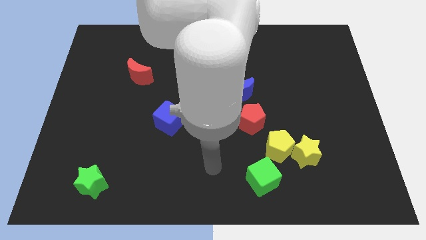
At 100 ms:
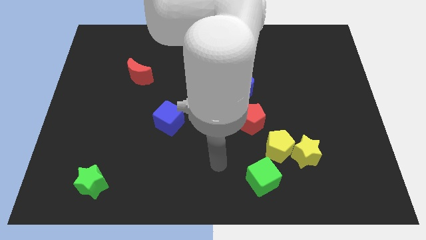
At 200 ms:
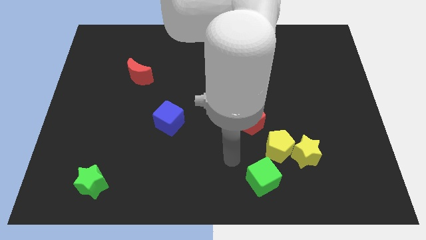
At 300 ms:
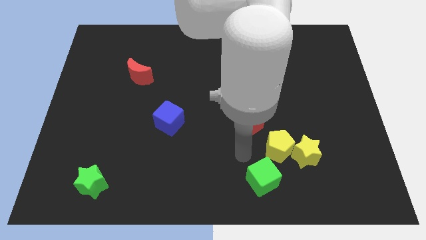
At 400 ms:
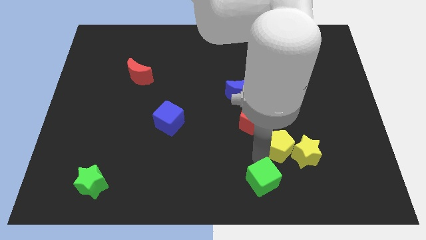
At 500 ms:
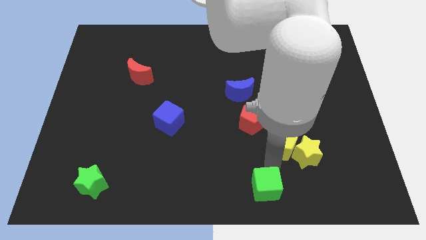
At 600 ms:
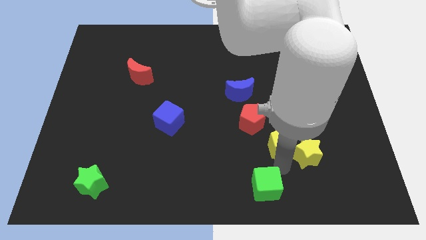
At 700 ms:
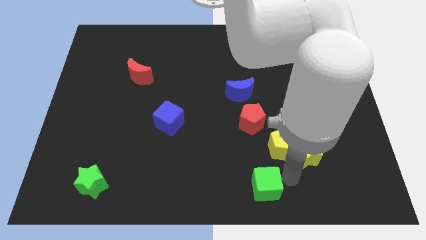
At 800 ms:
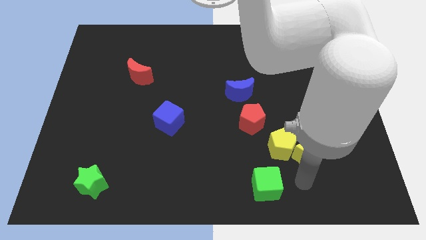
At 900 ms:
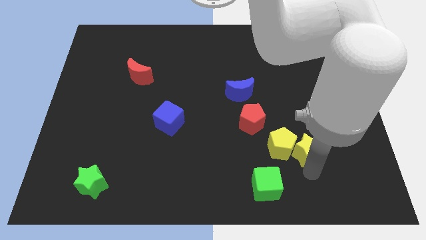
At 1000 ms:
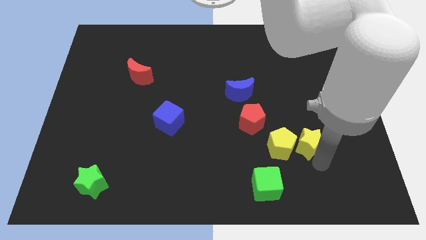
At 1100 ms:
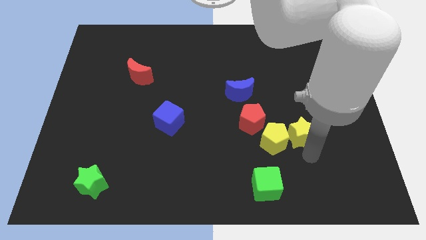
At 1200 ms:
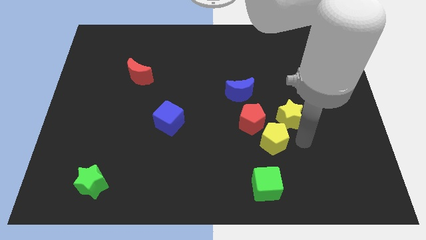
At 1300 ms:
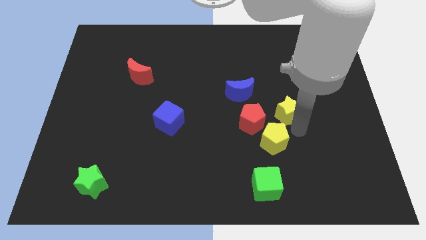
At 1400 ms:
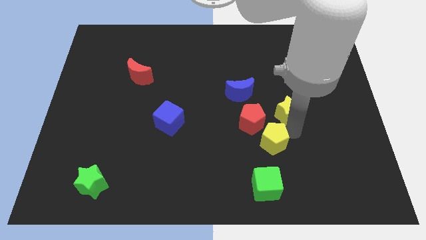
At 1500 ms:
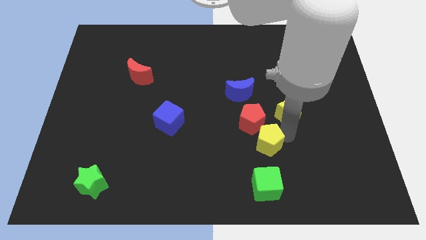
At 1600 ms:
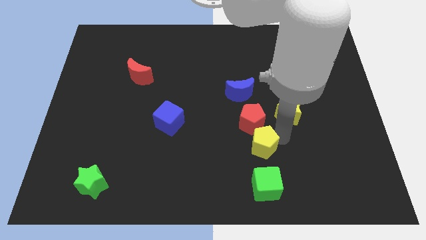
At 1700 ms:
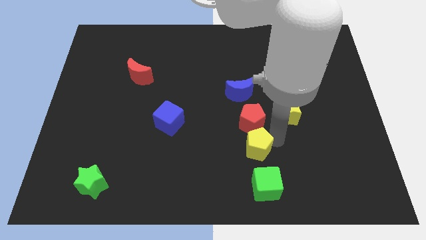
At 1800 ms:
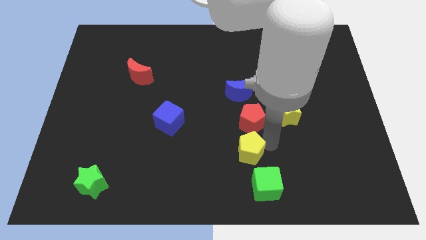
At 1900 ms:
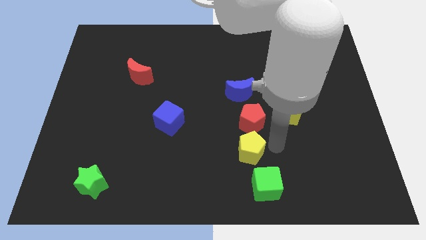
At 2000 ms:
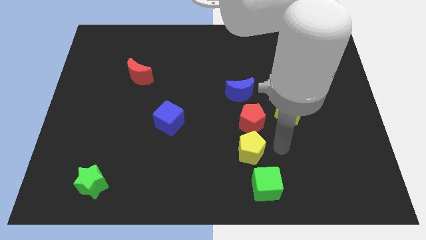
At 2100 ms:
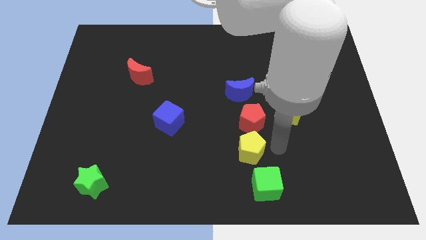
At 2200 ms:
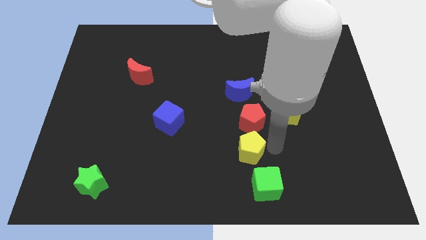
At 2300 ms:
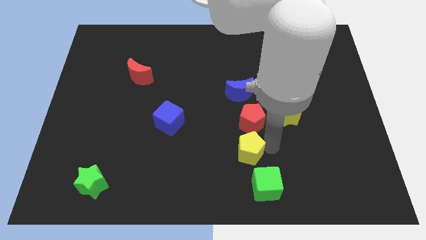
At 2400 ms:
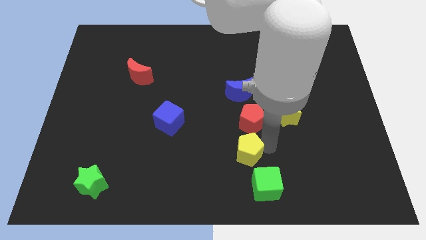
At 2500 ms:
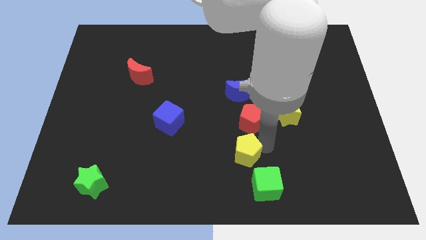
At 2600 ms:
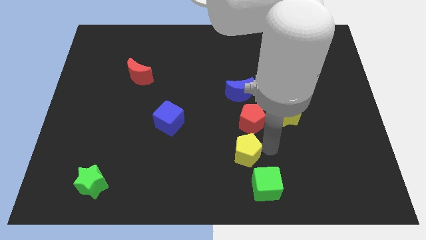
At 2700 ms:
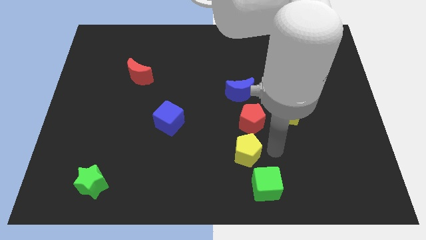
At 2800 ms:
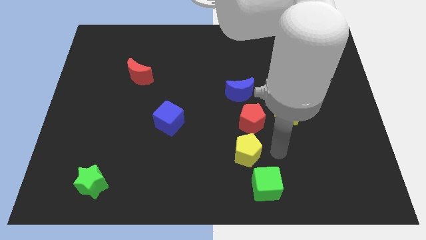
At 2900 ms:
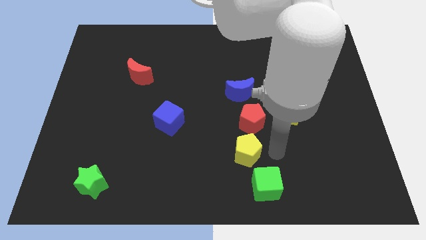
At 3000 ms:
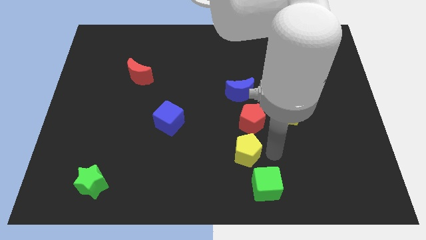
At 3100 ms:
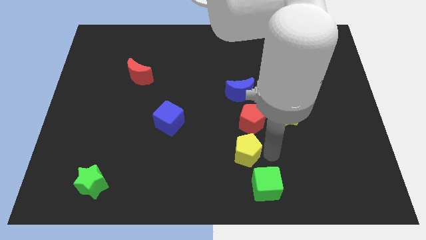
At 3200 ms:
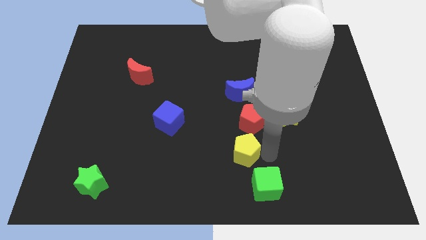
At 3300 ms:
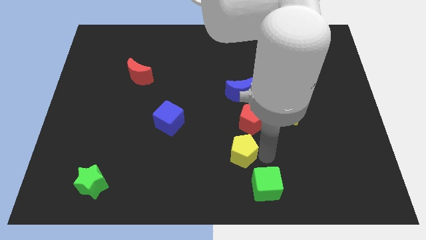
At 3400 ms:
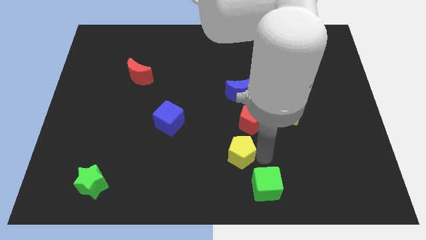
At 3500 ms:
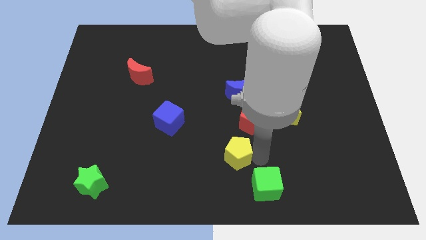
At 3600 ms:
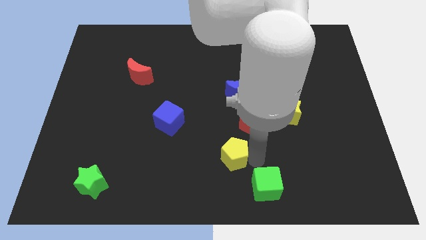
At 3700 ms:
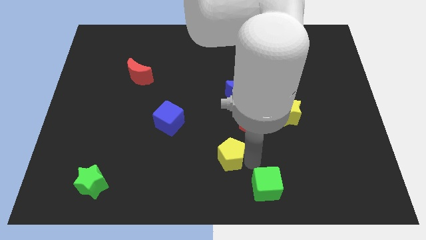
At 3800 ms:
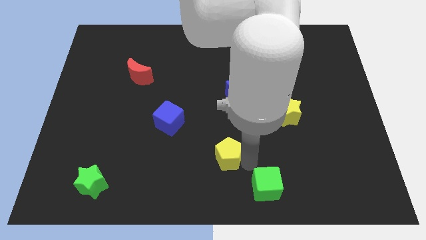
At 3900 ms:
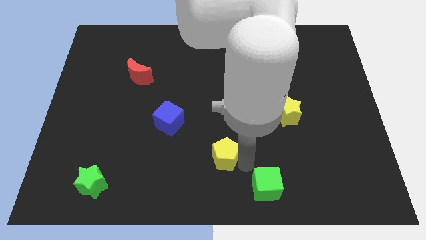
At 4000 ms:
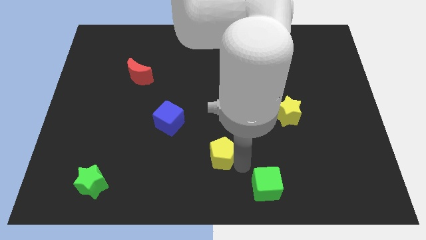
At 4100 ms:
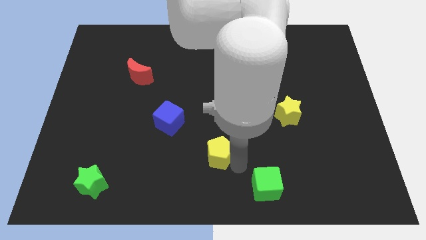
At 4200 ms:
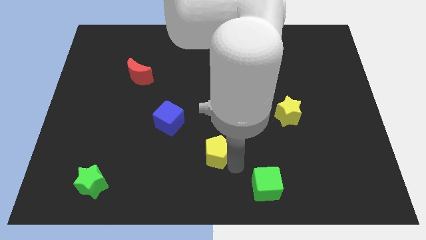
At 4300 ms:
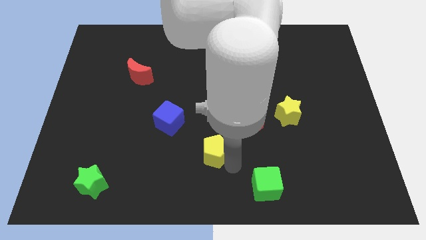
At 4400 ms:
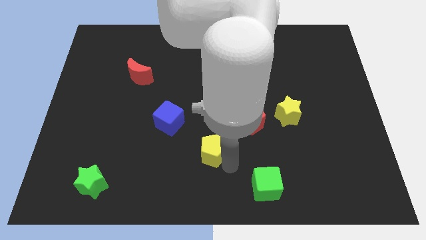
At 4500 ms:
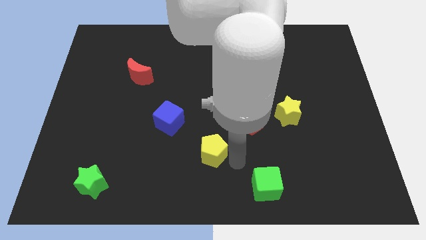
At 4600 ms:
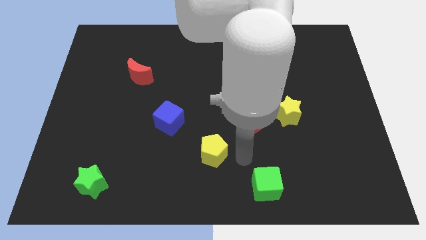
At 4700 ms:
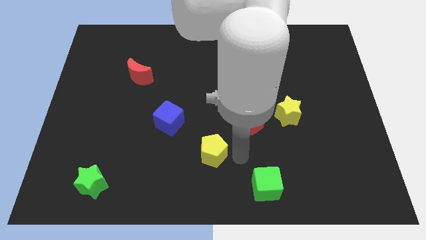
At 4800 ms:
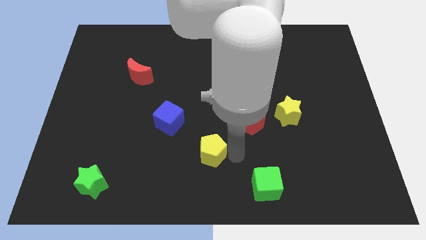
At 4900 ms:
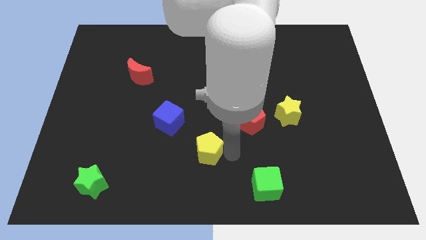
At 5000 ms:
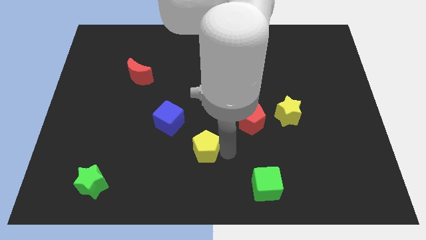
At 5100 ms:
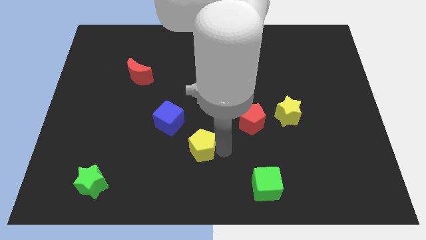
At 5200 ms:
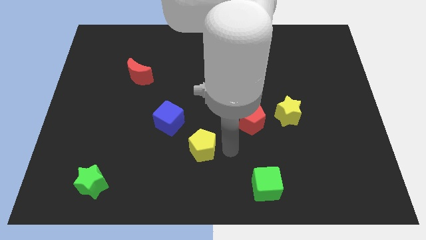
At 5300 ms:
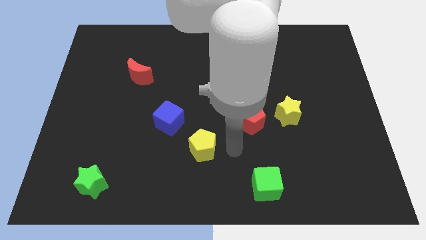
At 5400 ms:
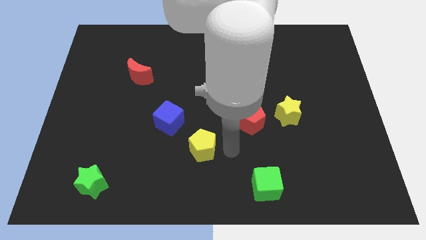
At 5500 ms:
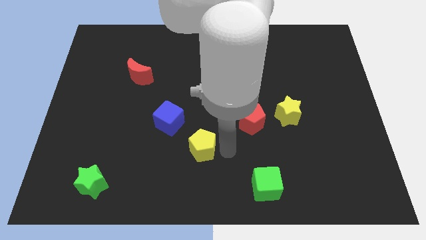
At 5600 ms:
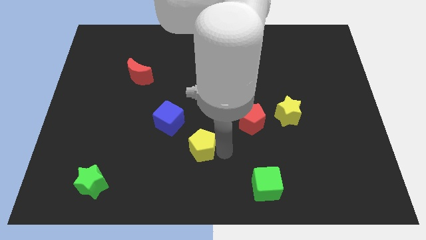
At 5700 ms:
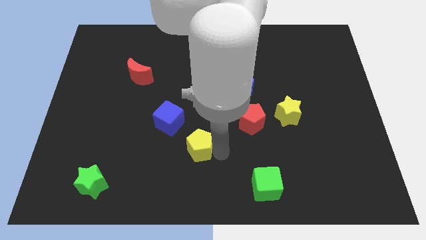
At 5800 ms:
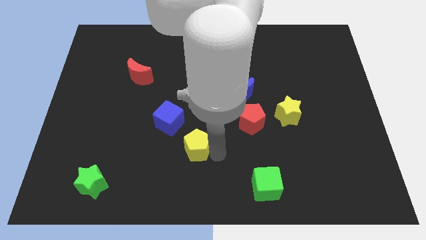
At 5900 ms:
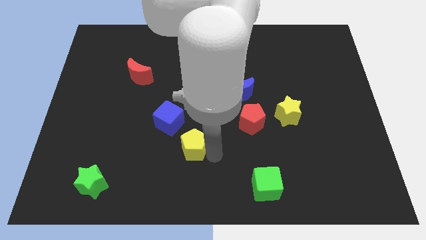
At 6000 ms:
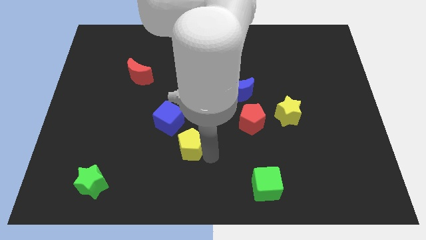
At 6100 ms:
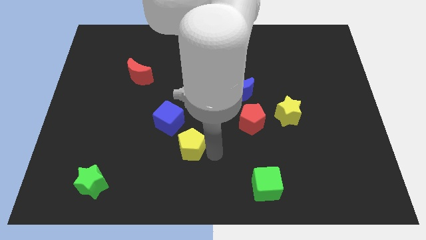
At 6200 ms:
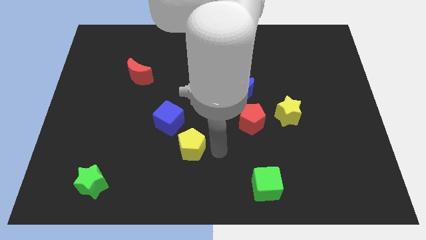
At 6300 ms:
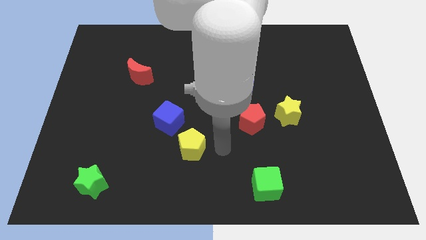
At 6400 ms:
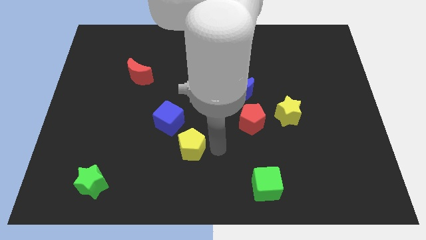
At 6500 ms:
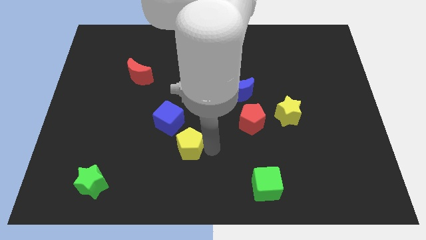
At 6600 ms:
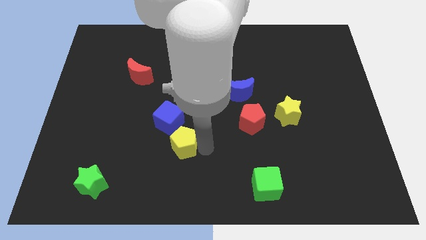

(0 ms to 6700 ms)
slide the yellow pentagon to the left

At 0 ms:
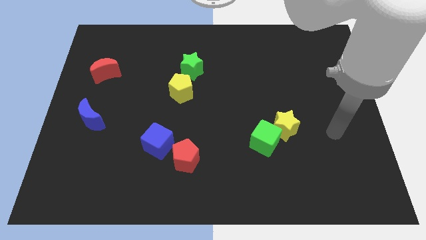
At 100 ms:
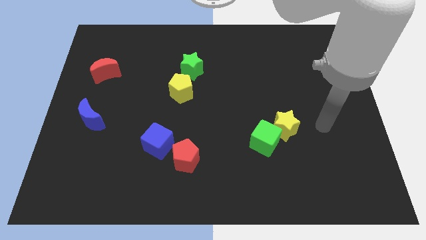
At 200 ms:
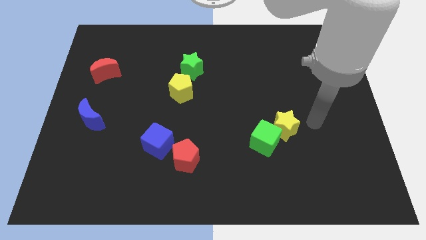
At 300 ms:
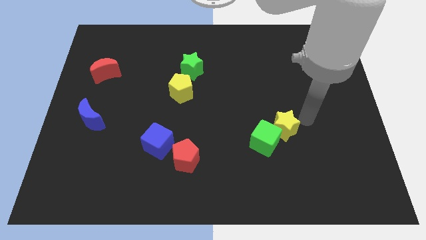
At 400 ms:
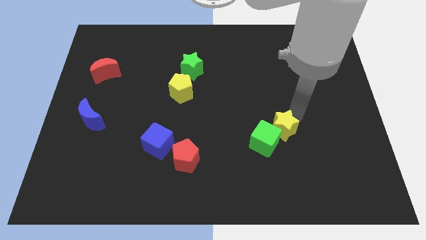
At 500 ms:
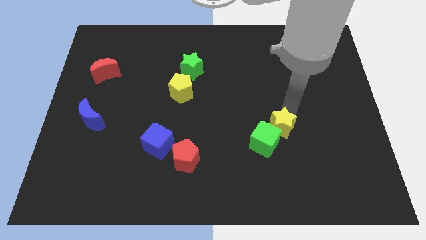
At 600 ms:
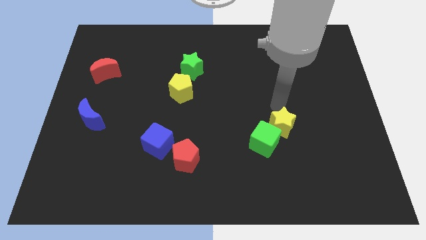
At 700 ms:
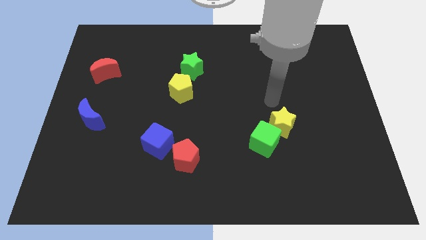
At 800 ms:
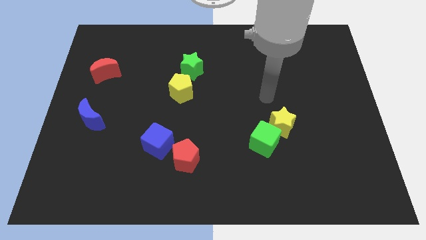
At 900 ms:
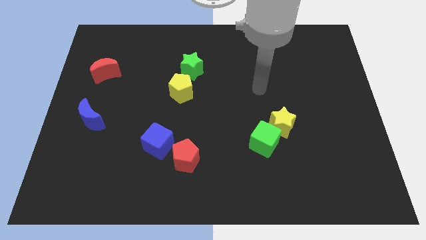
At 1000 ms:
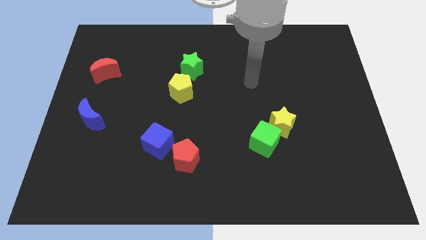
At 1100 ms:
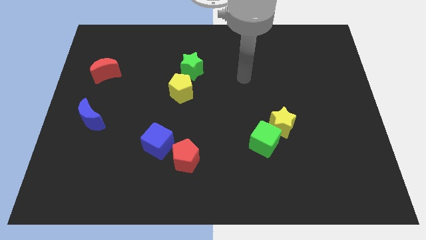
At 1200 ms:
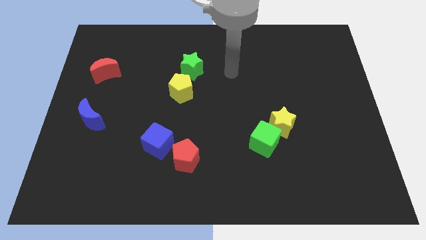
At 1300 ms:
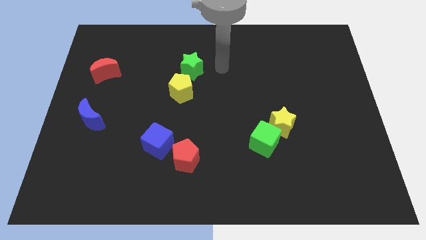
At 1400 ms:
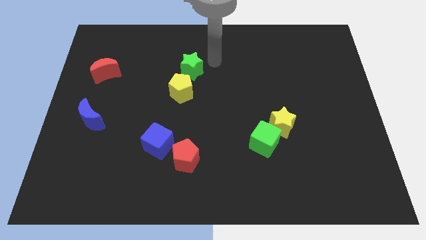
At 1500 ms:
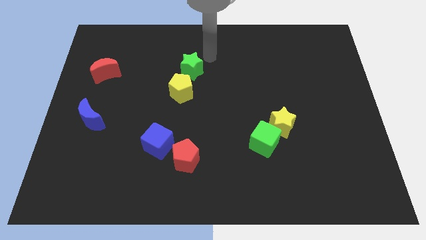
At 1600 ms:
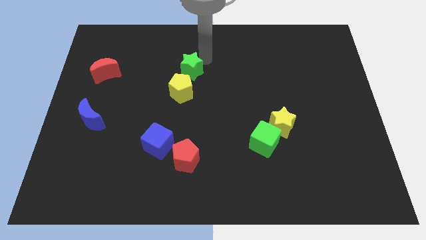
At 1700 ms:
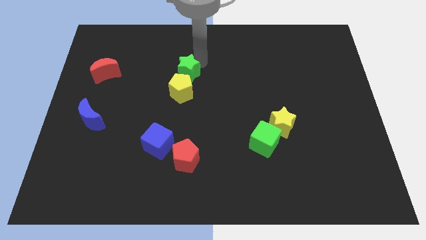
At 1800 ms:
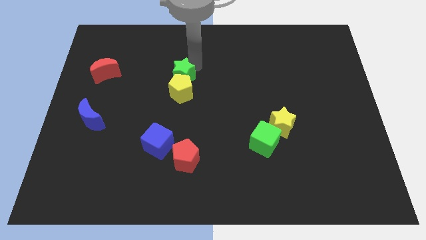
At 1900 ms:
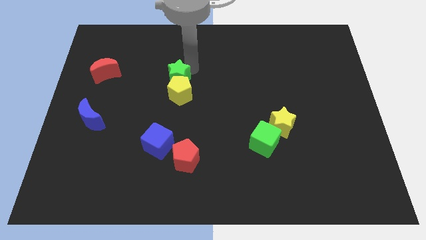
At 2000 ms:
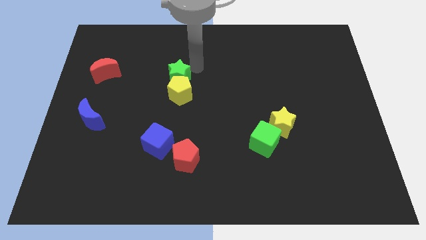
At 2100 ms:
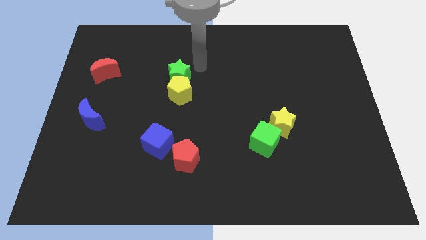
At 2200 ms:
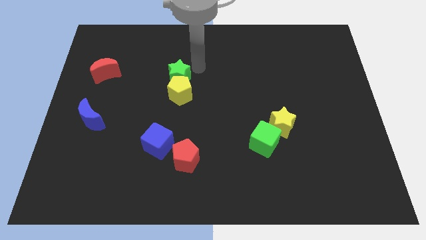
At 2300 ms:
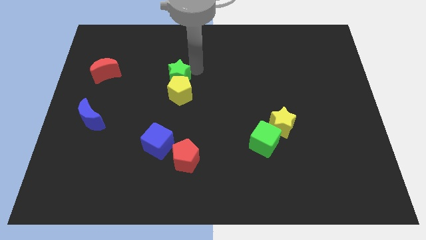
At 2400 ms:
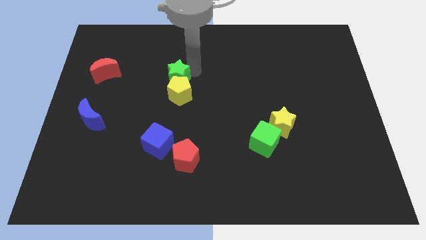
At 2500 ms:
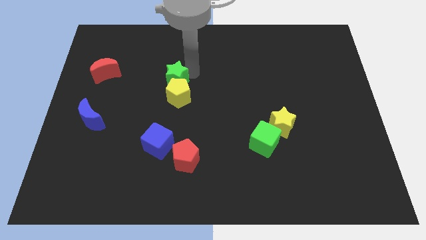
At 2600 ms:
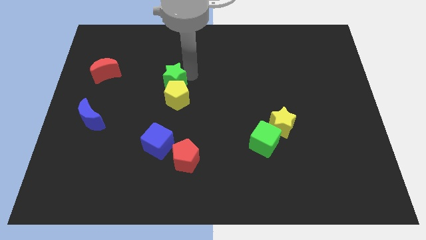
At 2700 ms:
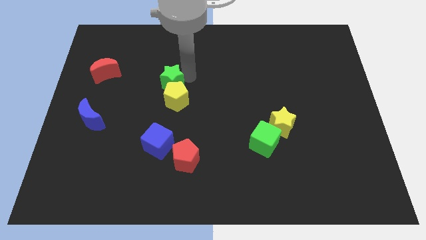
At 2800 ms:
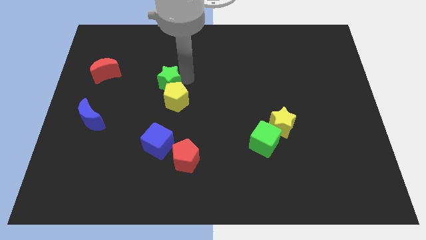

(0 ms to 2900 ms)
slide the green star downwards and then left a bit
